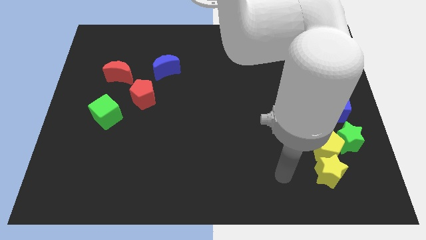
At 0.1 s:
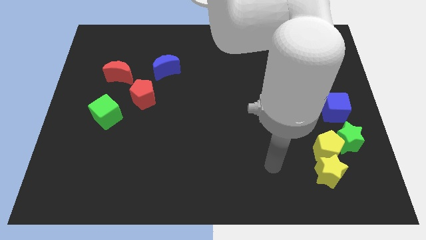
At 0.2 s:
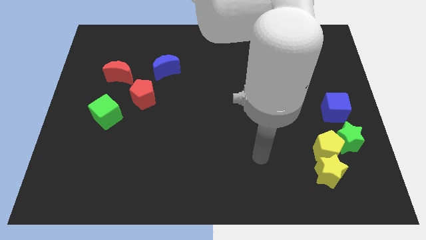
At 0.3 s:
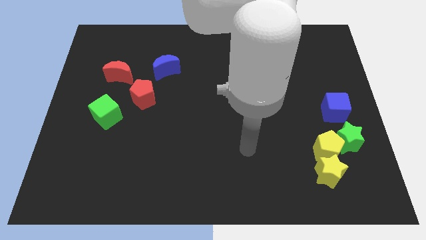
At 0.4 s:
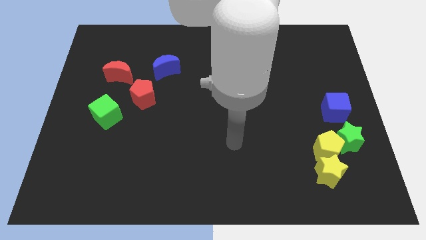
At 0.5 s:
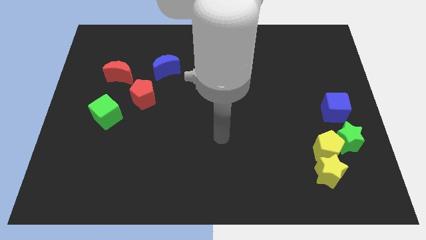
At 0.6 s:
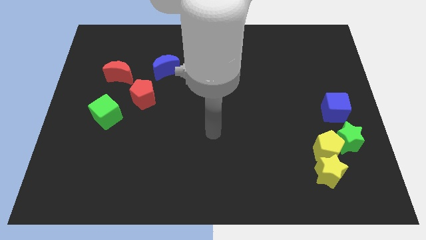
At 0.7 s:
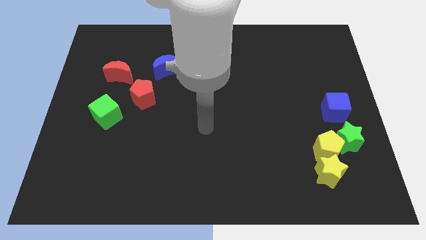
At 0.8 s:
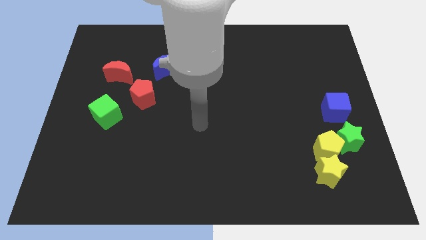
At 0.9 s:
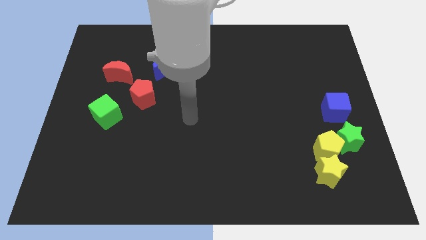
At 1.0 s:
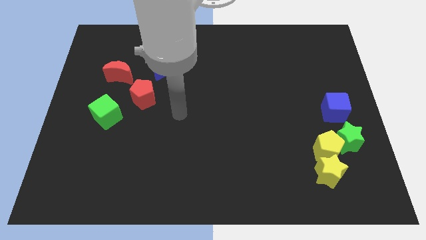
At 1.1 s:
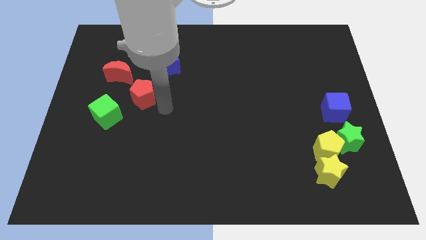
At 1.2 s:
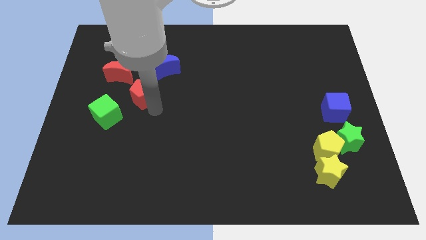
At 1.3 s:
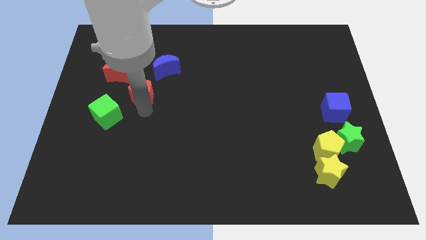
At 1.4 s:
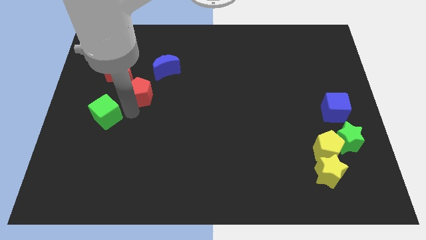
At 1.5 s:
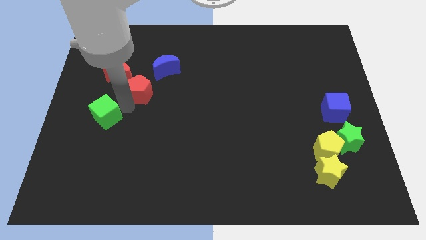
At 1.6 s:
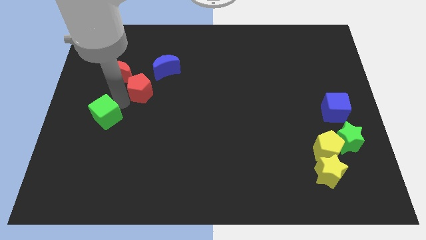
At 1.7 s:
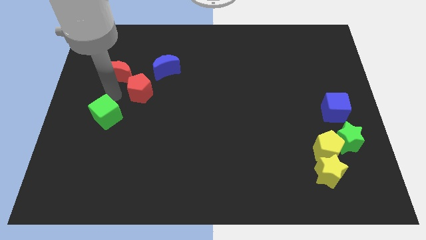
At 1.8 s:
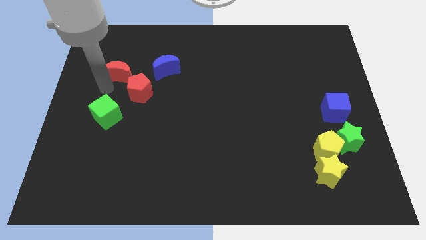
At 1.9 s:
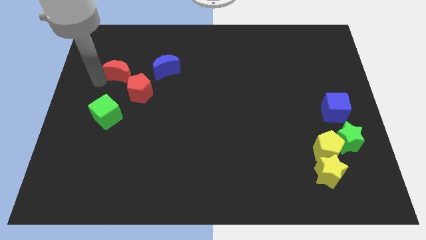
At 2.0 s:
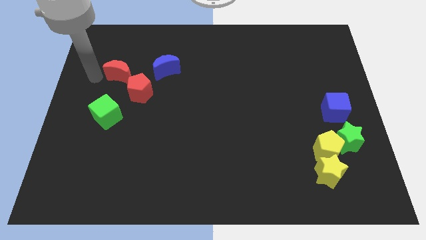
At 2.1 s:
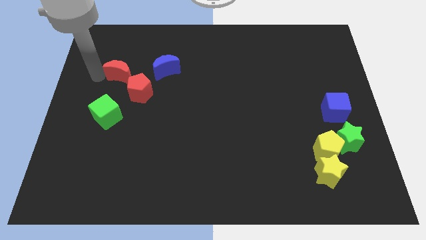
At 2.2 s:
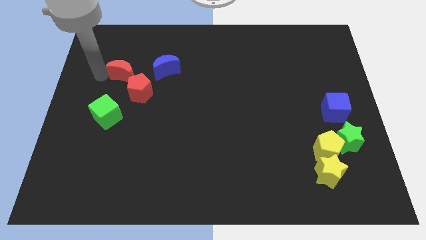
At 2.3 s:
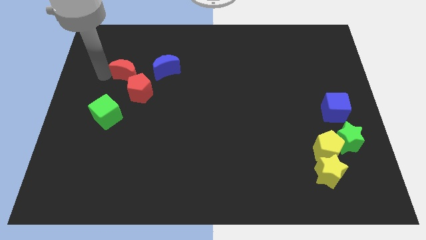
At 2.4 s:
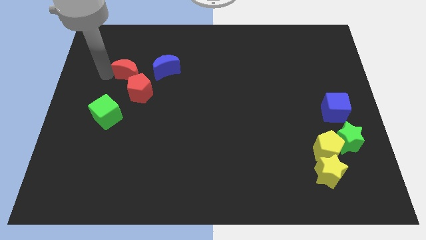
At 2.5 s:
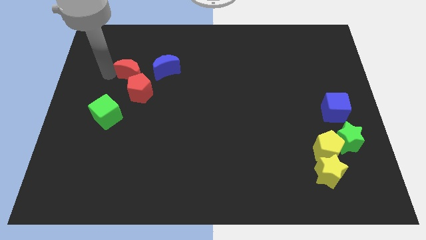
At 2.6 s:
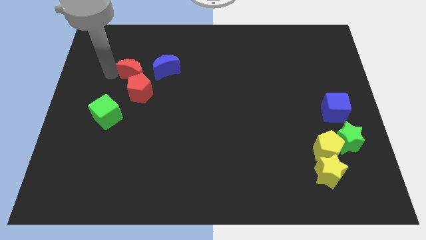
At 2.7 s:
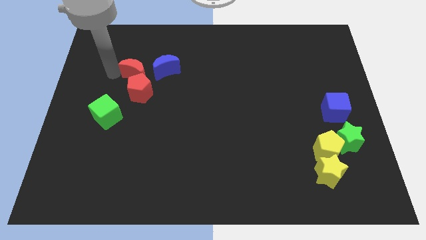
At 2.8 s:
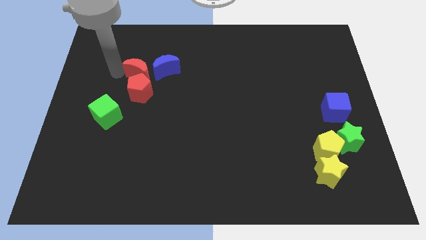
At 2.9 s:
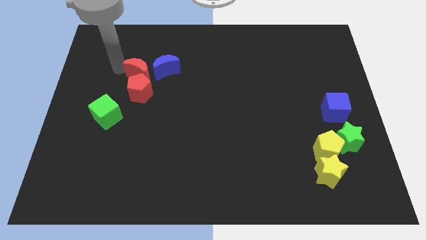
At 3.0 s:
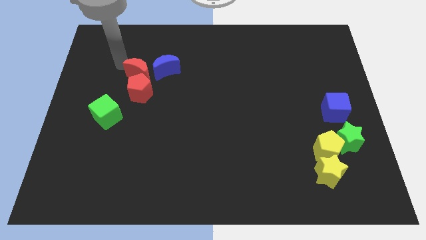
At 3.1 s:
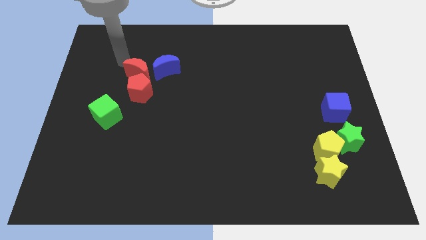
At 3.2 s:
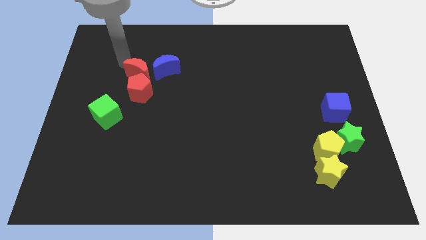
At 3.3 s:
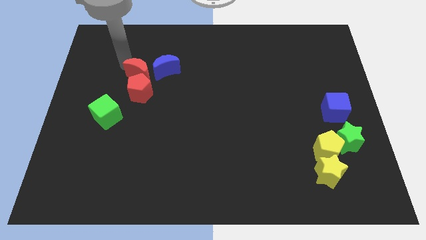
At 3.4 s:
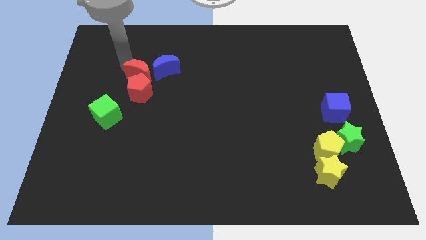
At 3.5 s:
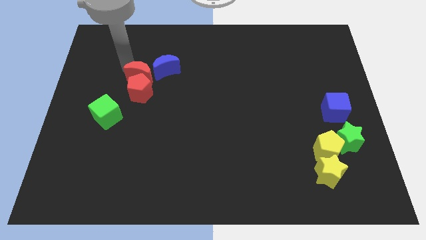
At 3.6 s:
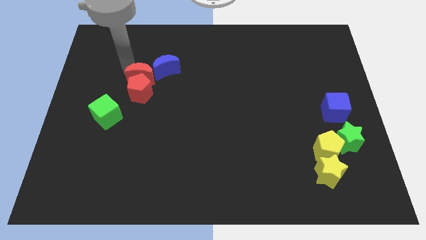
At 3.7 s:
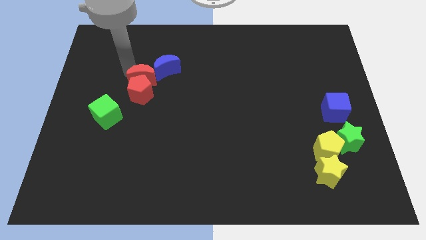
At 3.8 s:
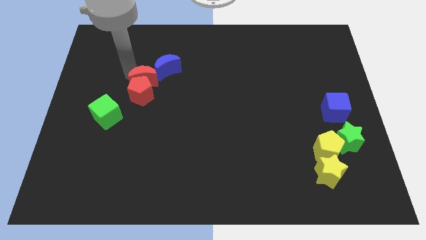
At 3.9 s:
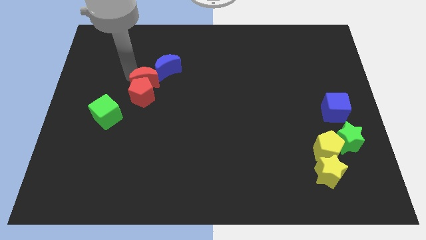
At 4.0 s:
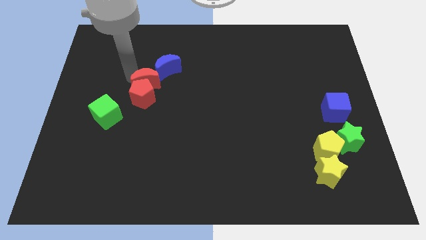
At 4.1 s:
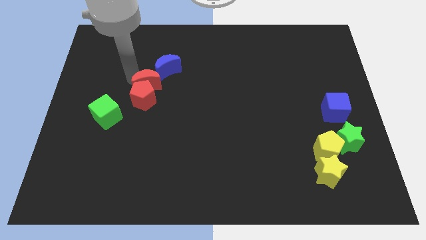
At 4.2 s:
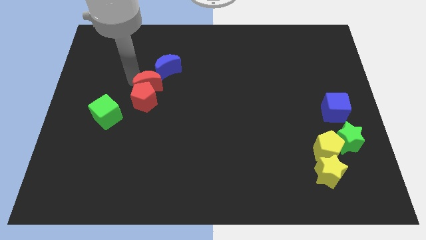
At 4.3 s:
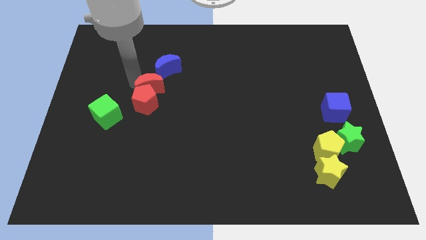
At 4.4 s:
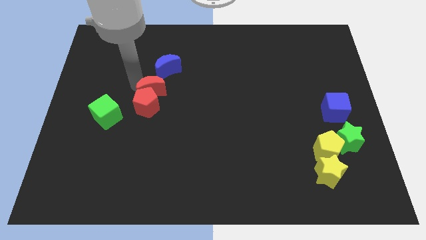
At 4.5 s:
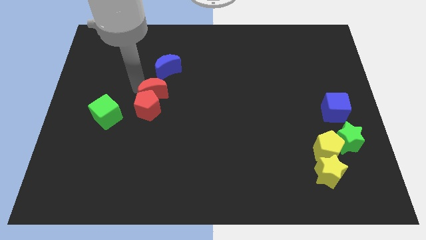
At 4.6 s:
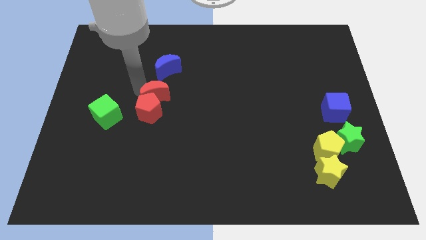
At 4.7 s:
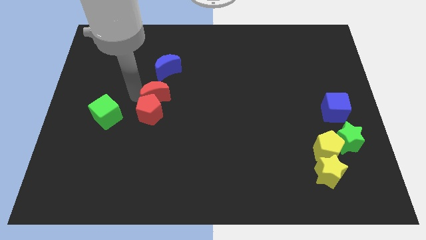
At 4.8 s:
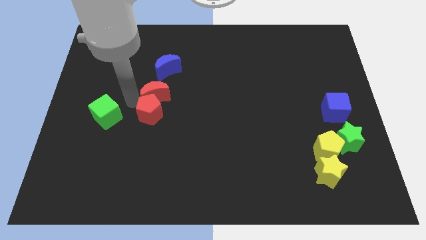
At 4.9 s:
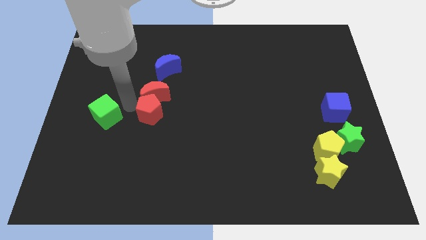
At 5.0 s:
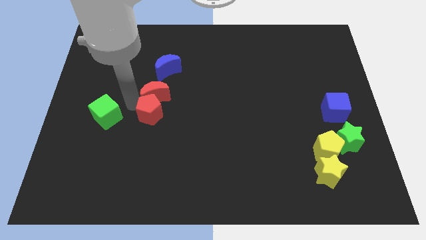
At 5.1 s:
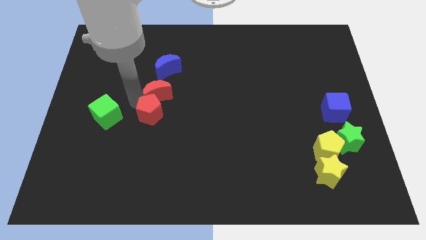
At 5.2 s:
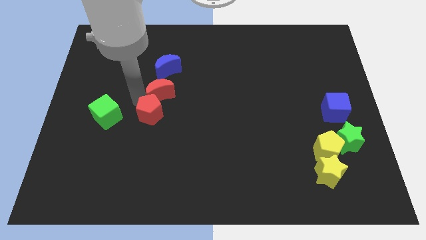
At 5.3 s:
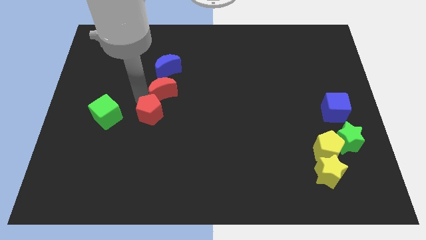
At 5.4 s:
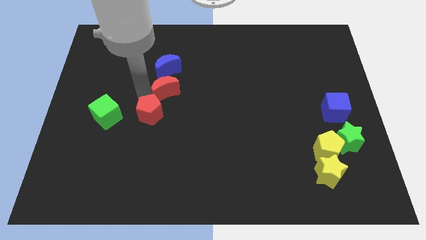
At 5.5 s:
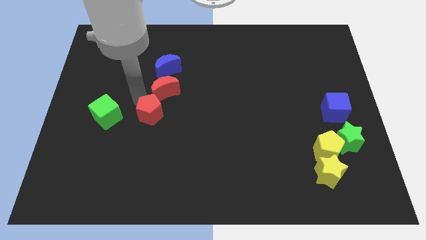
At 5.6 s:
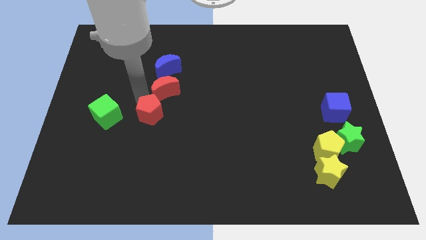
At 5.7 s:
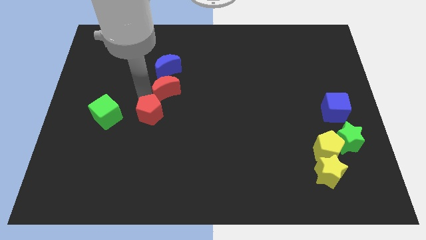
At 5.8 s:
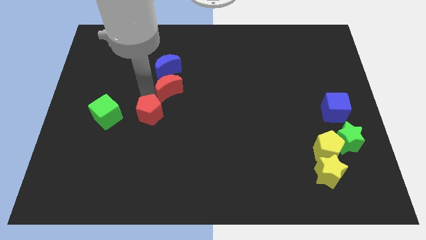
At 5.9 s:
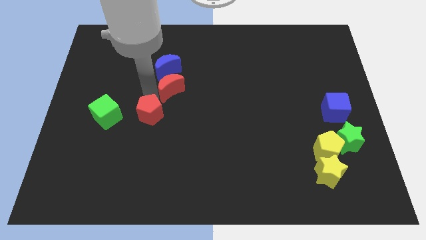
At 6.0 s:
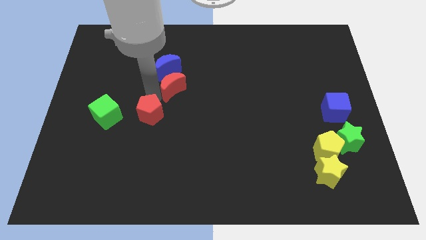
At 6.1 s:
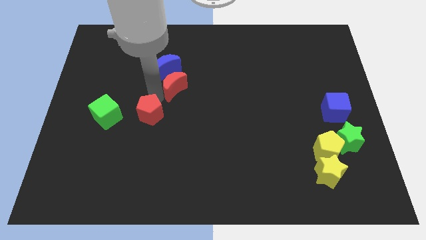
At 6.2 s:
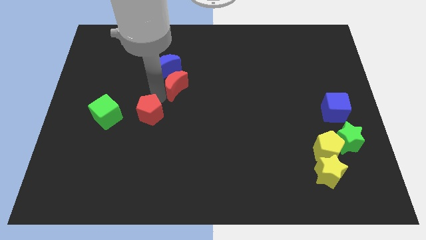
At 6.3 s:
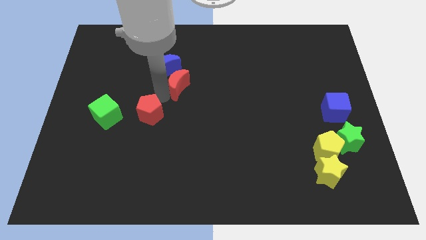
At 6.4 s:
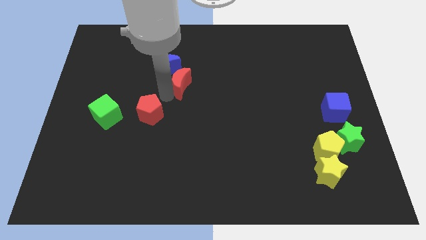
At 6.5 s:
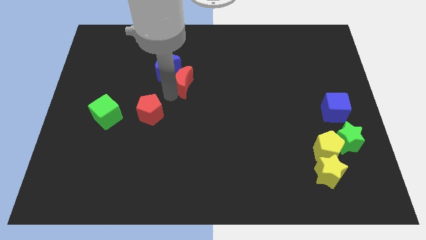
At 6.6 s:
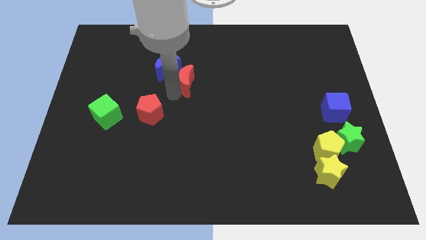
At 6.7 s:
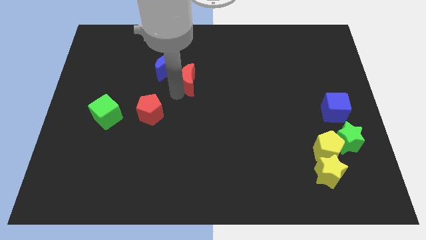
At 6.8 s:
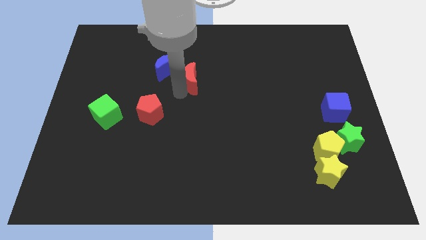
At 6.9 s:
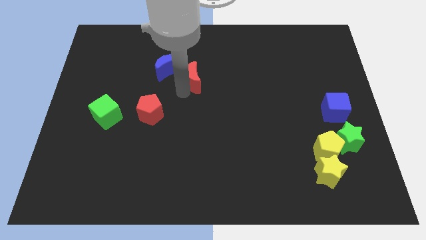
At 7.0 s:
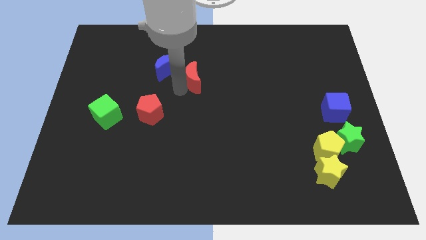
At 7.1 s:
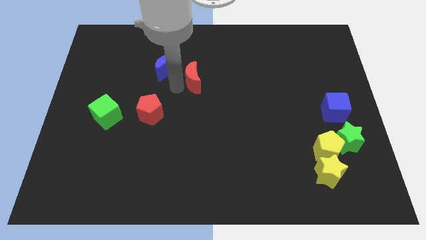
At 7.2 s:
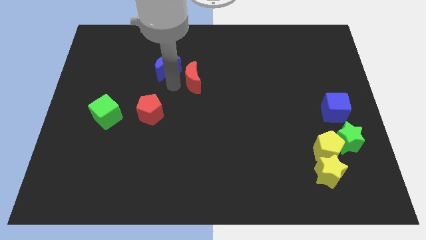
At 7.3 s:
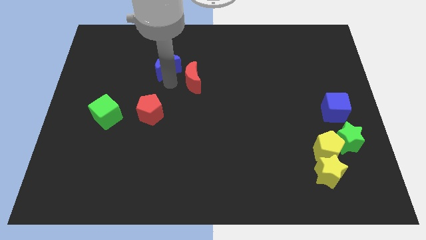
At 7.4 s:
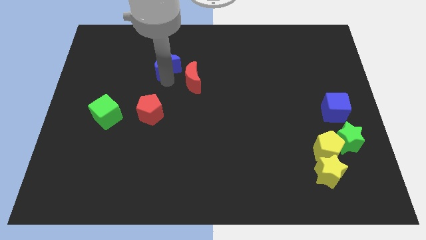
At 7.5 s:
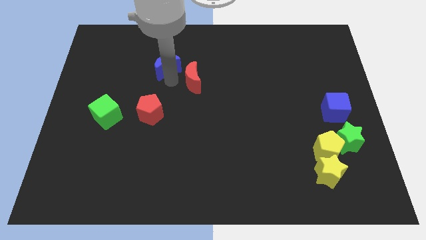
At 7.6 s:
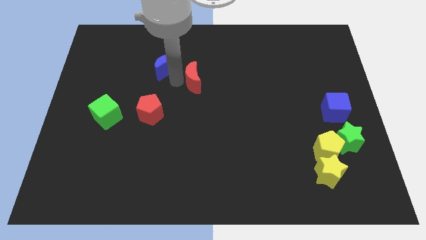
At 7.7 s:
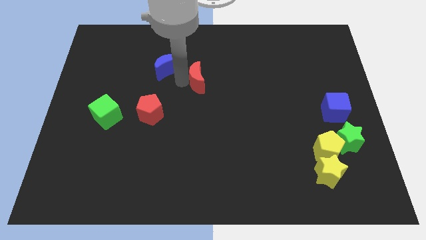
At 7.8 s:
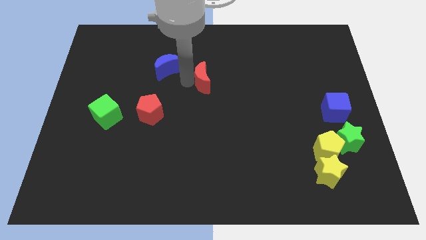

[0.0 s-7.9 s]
slide the red moon right

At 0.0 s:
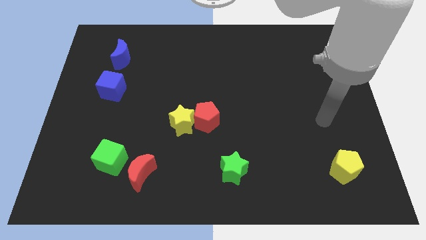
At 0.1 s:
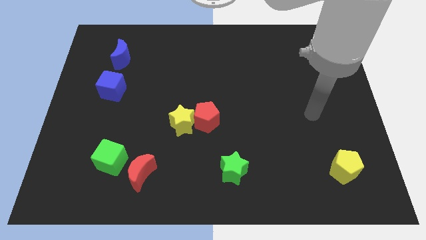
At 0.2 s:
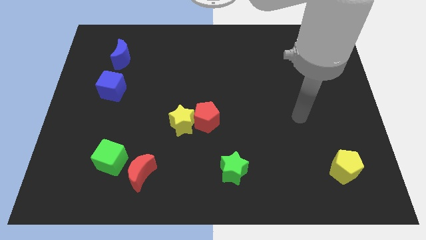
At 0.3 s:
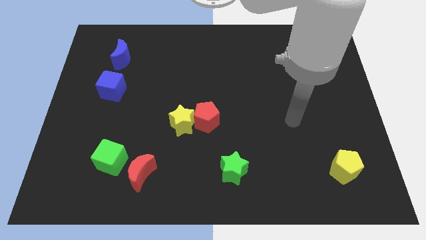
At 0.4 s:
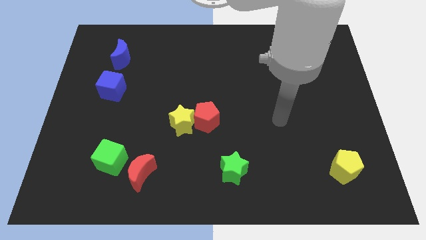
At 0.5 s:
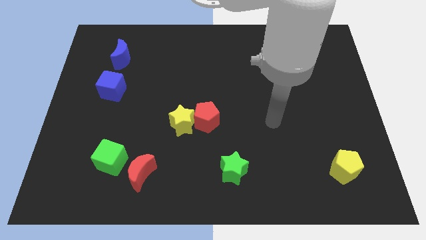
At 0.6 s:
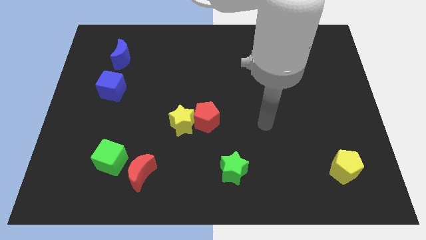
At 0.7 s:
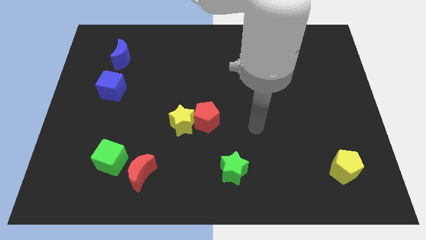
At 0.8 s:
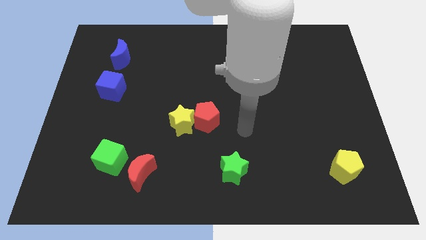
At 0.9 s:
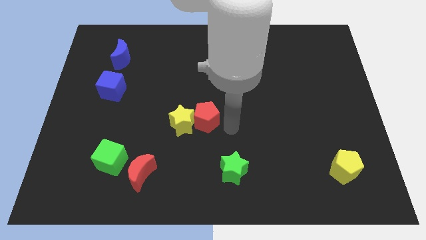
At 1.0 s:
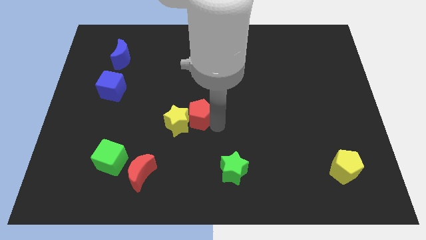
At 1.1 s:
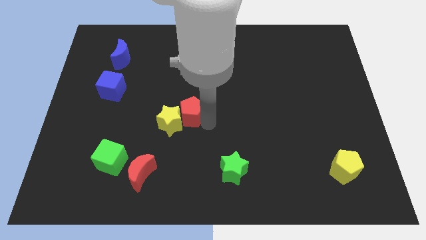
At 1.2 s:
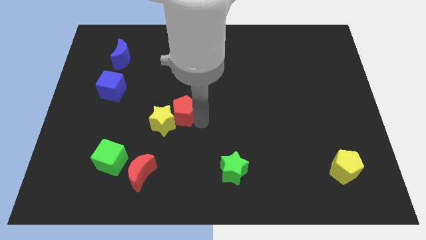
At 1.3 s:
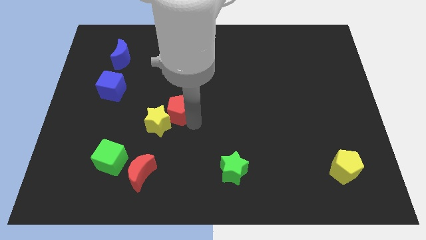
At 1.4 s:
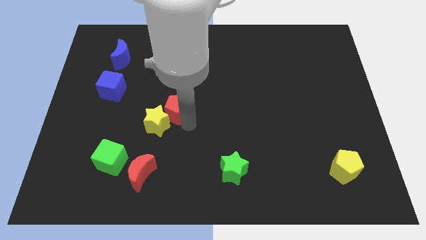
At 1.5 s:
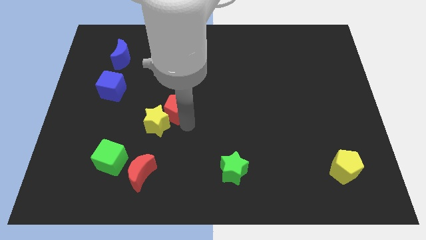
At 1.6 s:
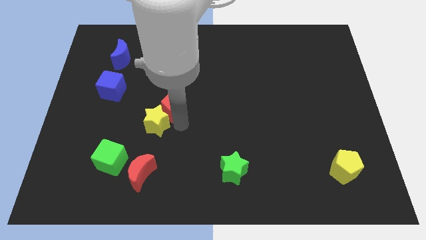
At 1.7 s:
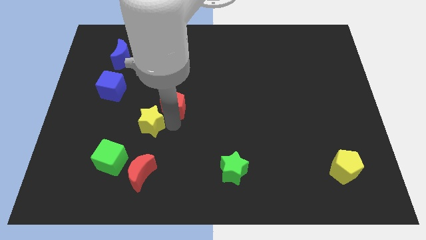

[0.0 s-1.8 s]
slide the yellow star slightly left
